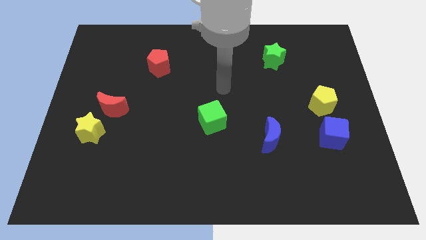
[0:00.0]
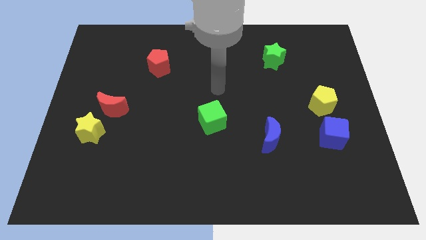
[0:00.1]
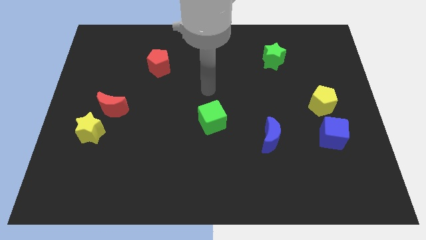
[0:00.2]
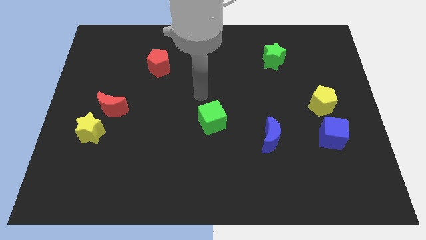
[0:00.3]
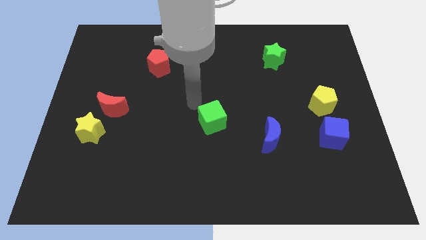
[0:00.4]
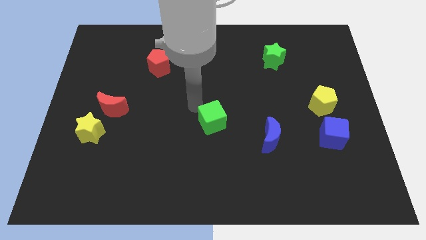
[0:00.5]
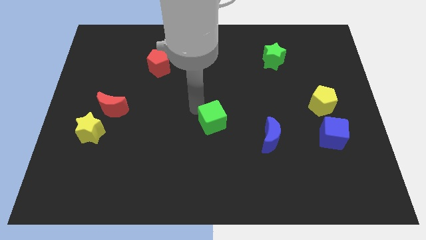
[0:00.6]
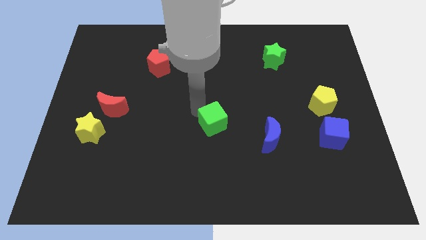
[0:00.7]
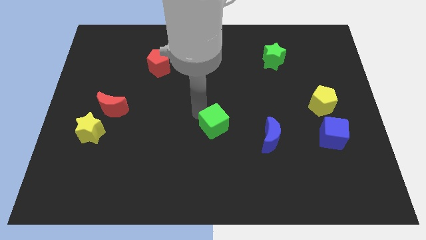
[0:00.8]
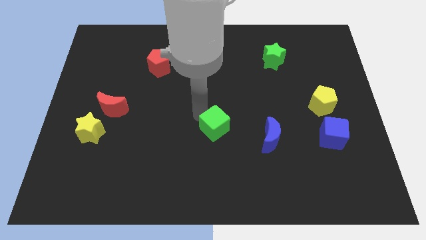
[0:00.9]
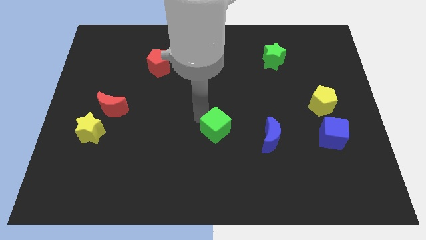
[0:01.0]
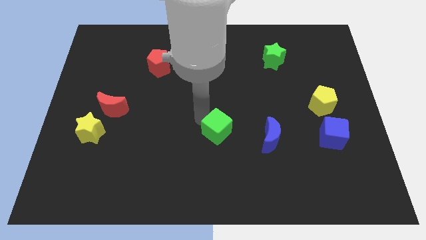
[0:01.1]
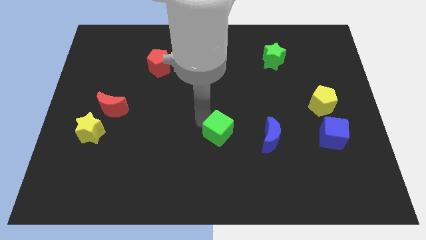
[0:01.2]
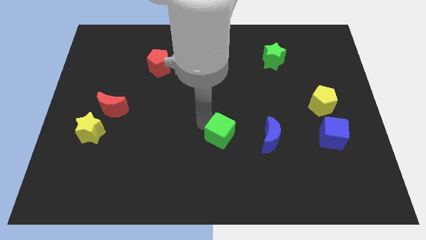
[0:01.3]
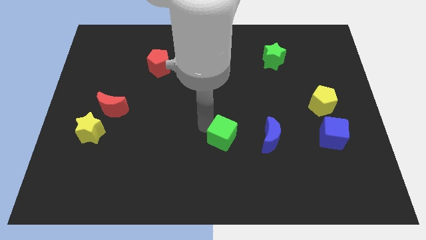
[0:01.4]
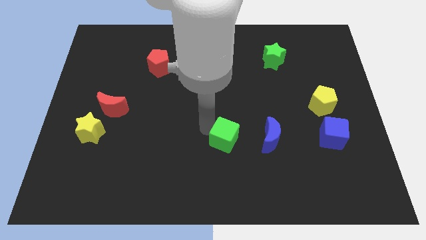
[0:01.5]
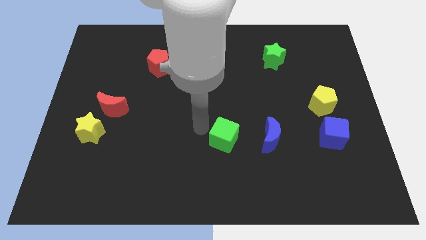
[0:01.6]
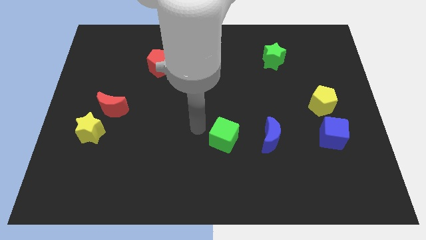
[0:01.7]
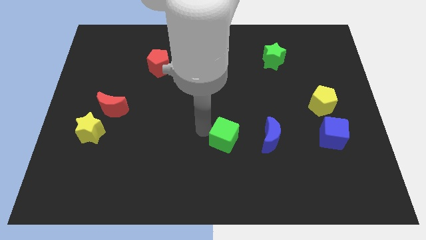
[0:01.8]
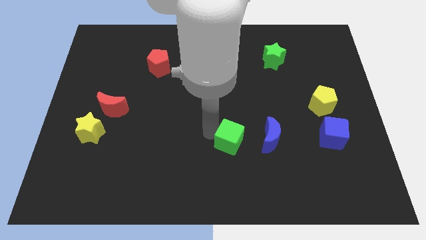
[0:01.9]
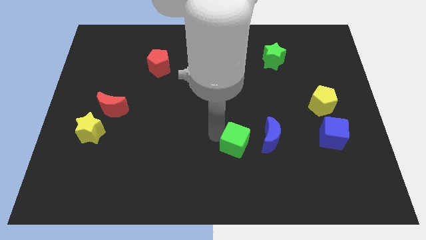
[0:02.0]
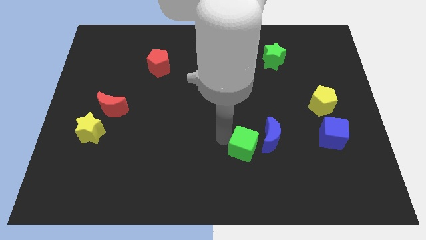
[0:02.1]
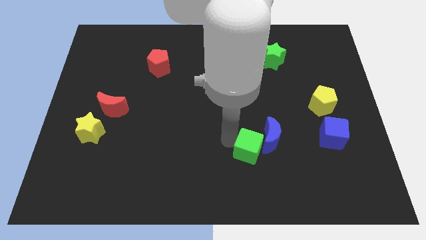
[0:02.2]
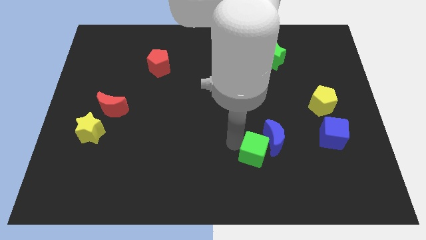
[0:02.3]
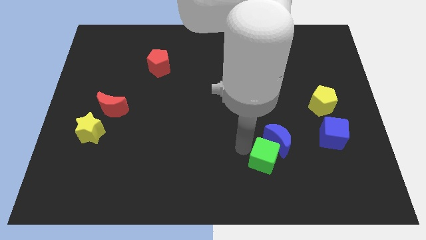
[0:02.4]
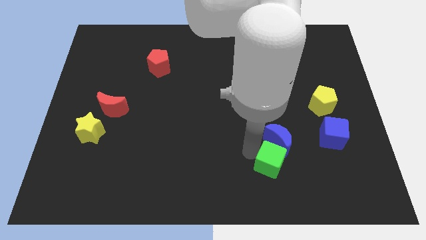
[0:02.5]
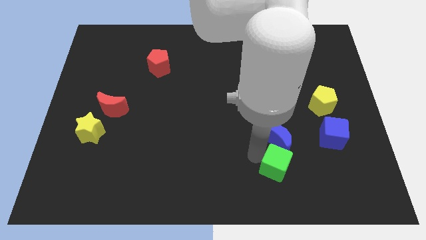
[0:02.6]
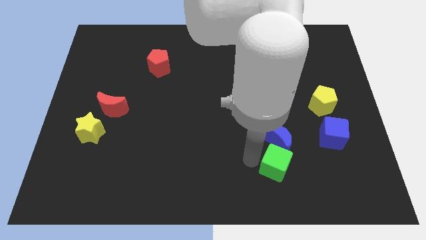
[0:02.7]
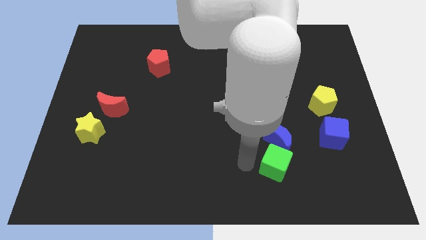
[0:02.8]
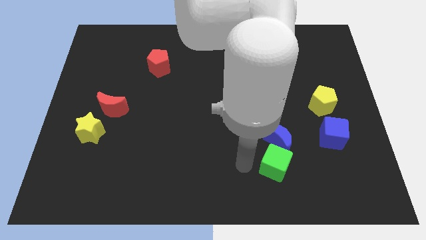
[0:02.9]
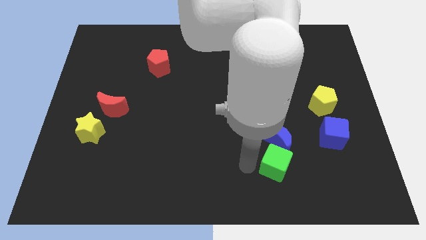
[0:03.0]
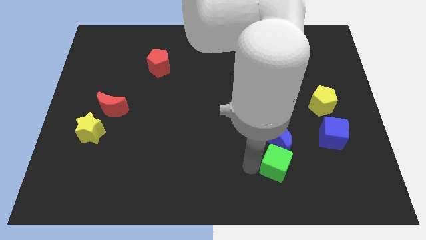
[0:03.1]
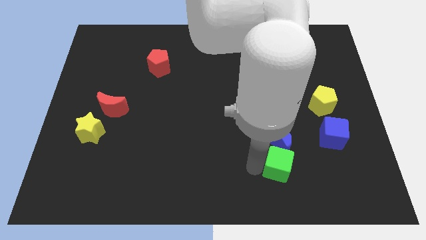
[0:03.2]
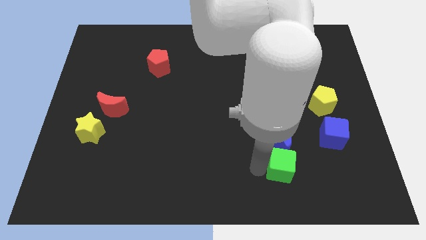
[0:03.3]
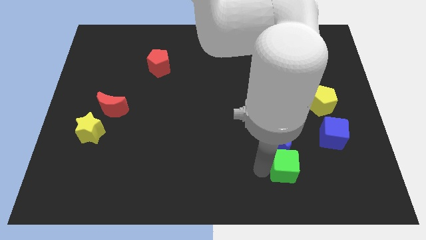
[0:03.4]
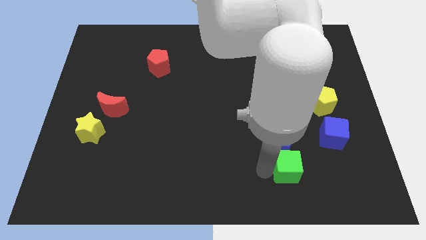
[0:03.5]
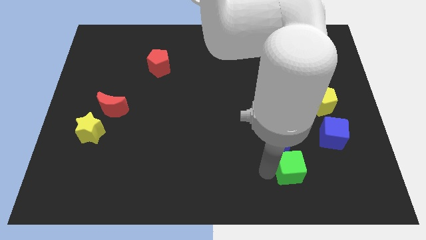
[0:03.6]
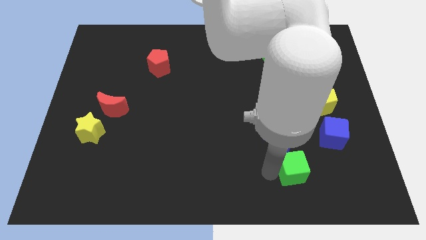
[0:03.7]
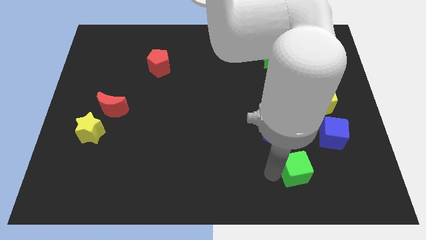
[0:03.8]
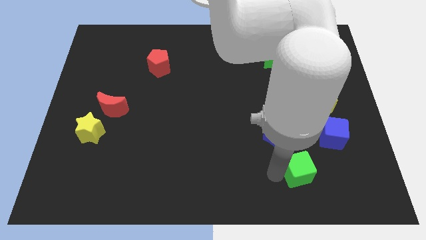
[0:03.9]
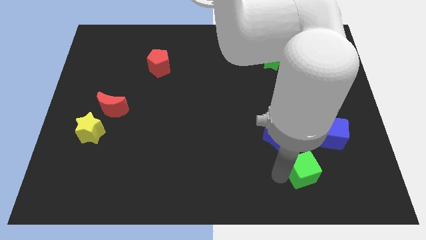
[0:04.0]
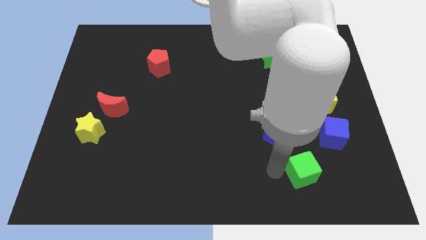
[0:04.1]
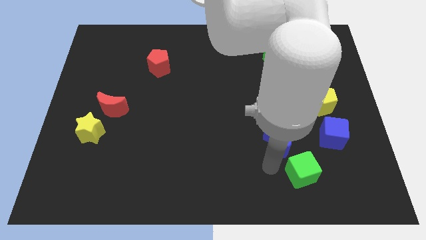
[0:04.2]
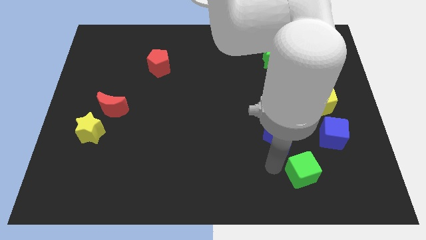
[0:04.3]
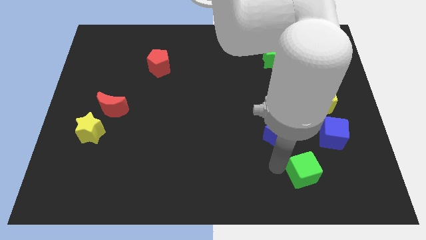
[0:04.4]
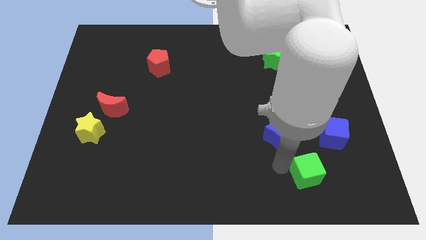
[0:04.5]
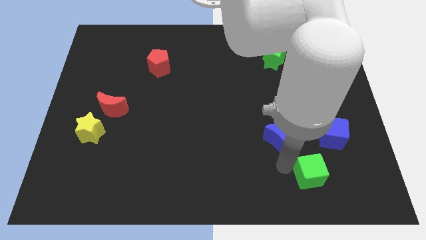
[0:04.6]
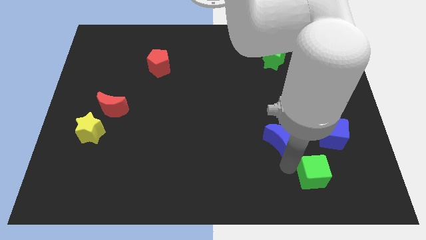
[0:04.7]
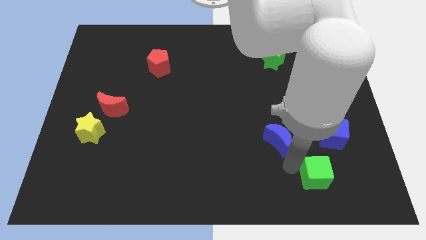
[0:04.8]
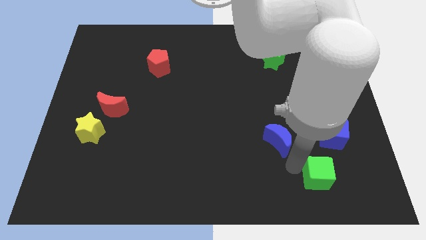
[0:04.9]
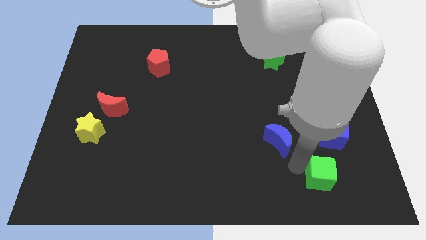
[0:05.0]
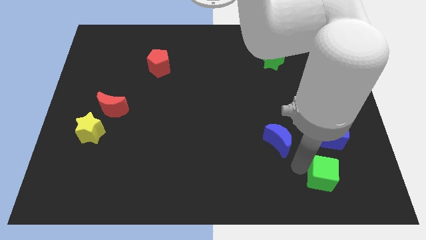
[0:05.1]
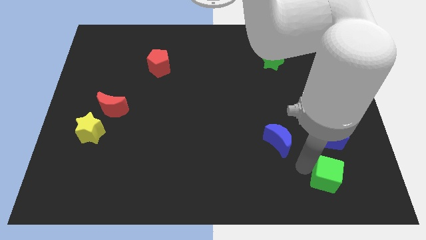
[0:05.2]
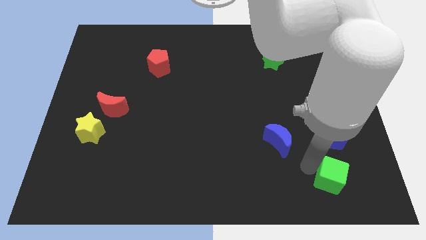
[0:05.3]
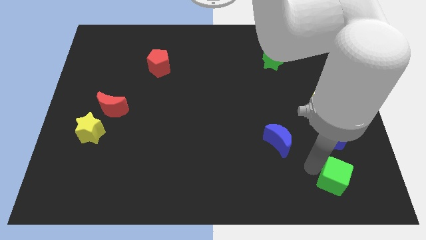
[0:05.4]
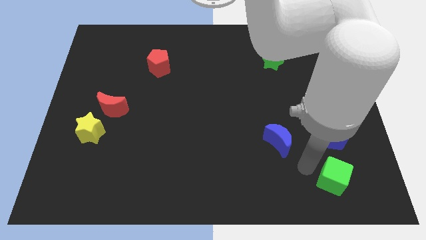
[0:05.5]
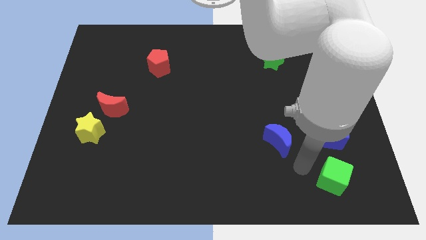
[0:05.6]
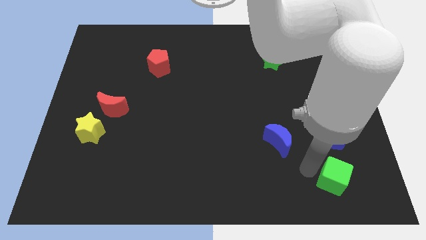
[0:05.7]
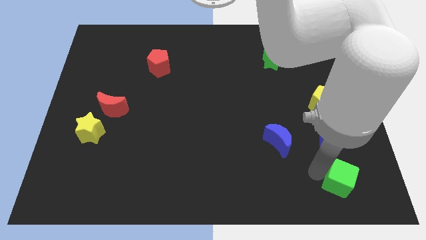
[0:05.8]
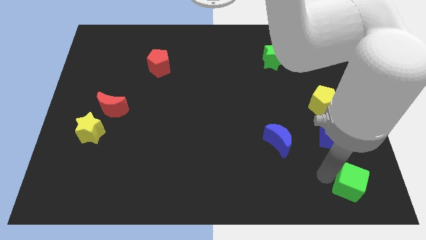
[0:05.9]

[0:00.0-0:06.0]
put the green cube to the bottom right corner
